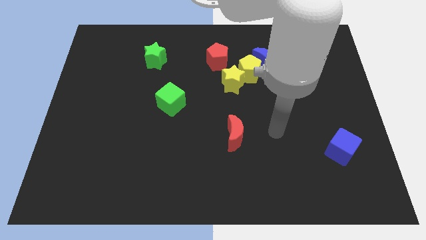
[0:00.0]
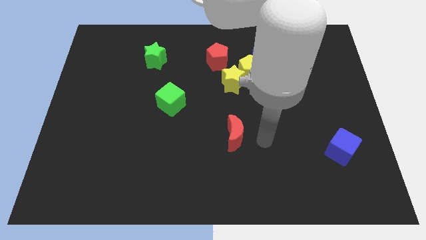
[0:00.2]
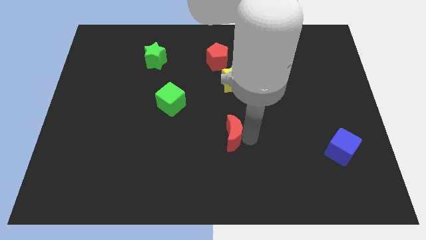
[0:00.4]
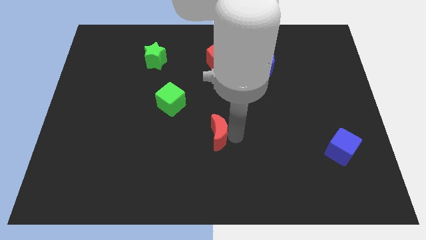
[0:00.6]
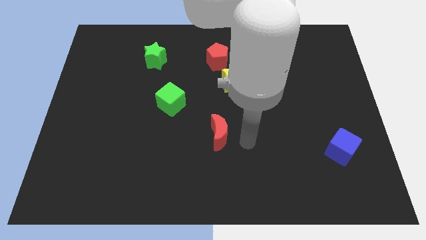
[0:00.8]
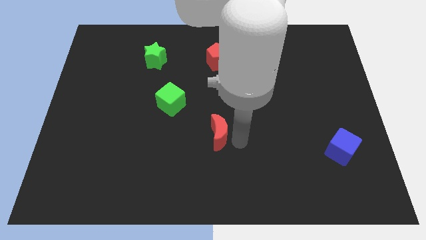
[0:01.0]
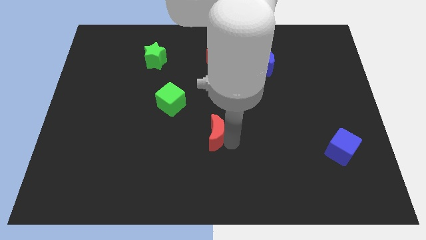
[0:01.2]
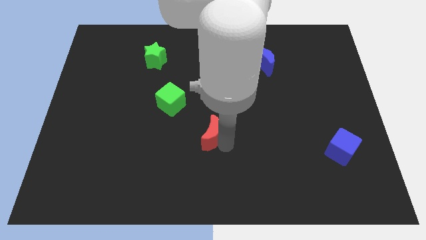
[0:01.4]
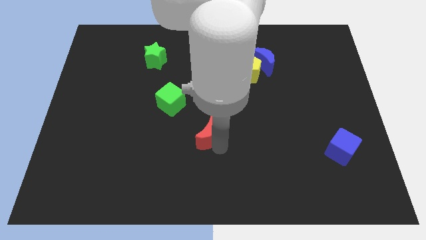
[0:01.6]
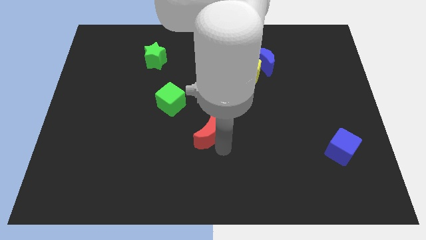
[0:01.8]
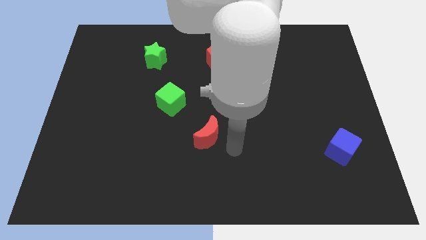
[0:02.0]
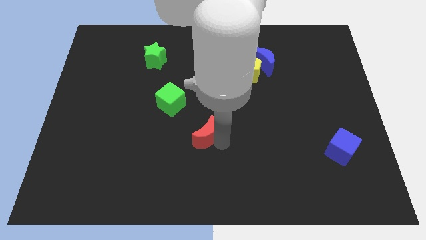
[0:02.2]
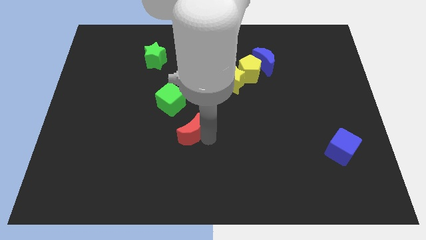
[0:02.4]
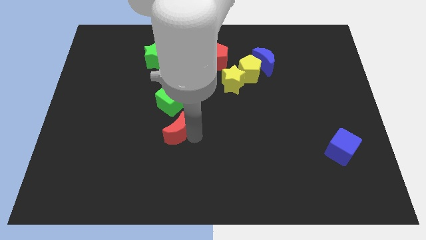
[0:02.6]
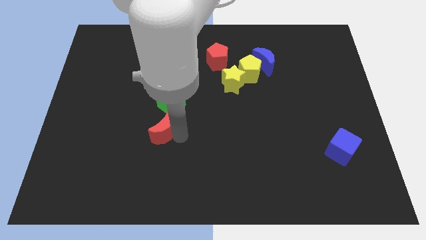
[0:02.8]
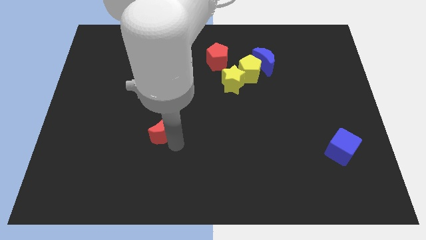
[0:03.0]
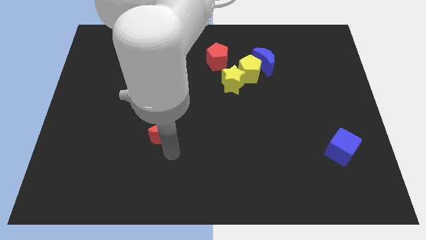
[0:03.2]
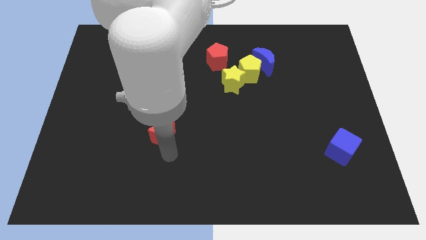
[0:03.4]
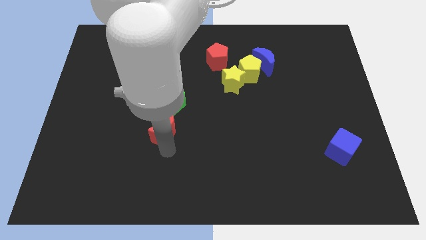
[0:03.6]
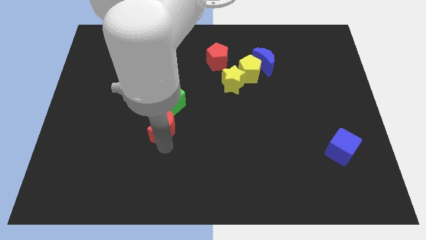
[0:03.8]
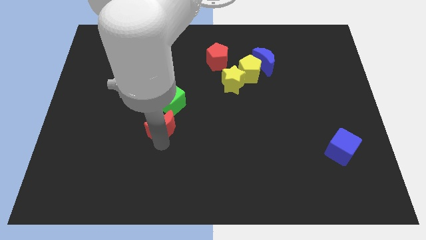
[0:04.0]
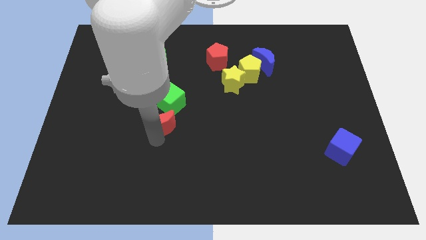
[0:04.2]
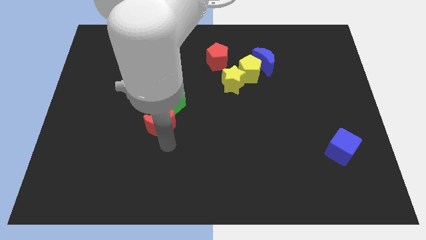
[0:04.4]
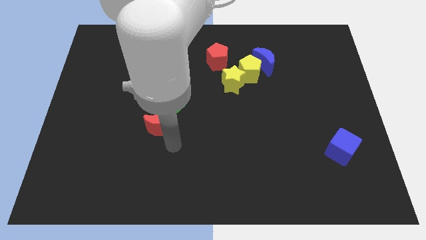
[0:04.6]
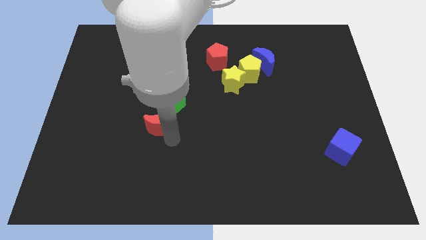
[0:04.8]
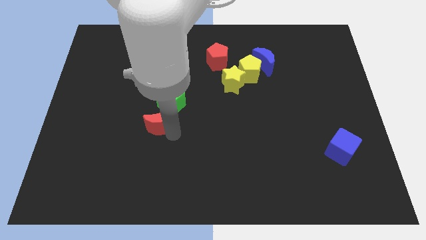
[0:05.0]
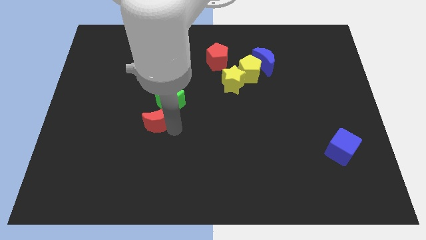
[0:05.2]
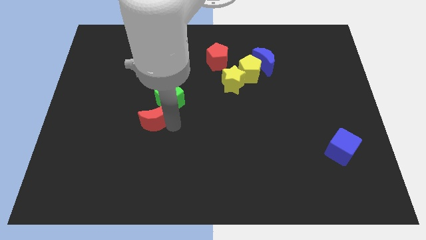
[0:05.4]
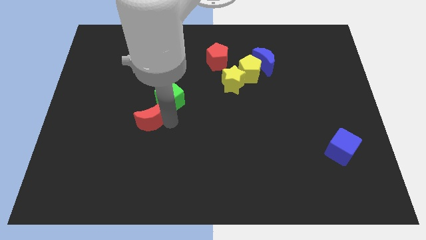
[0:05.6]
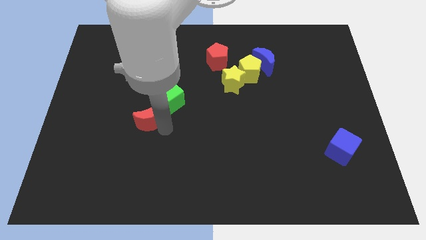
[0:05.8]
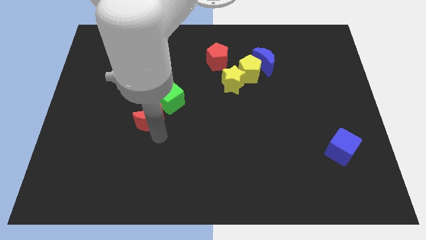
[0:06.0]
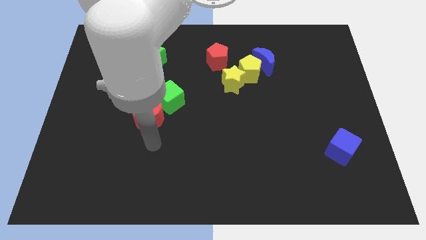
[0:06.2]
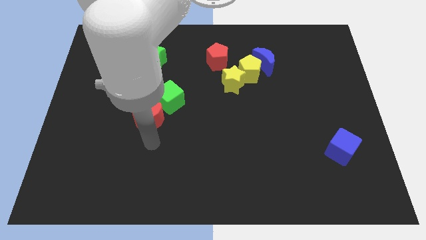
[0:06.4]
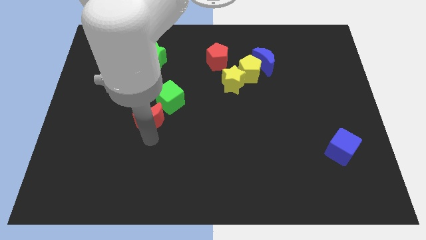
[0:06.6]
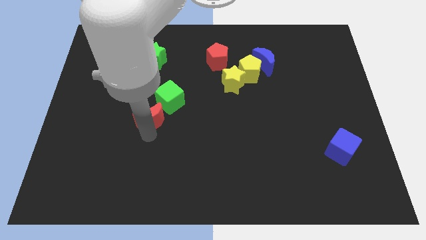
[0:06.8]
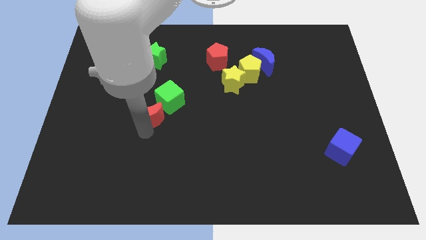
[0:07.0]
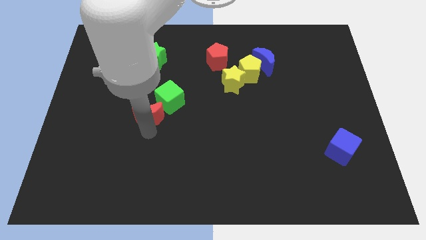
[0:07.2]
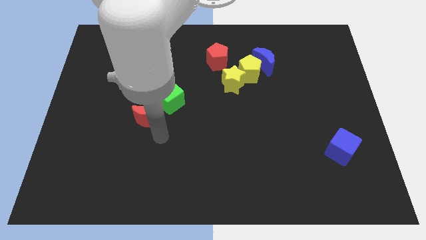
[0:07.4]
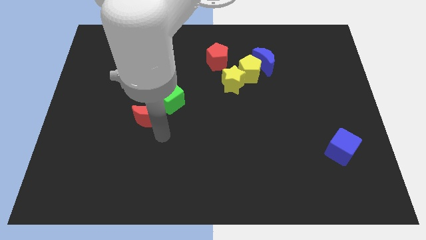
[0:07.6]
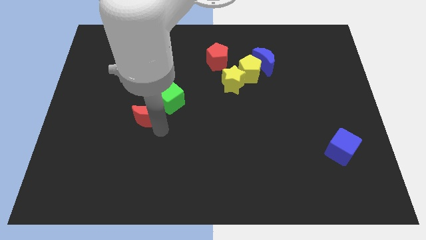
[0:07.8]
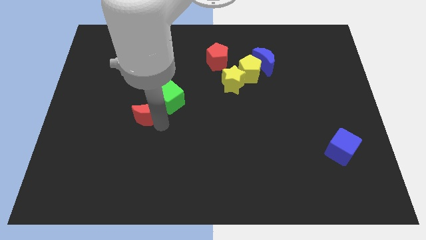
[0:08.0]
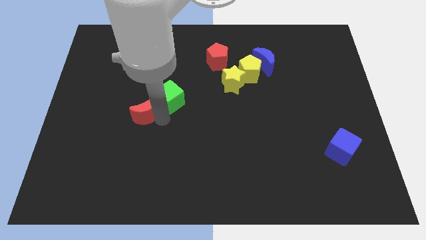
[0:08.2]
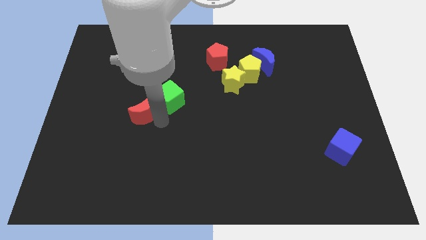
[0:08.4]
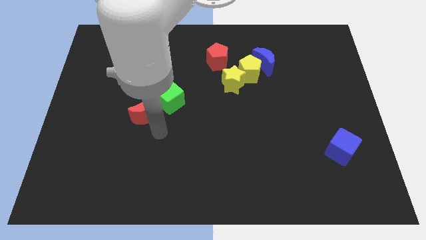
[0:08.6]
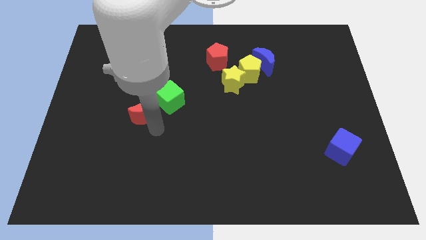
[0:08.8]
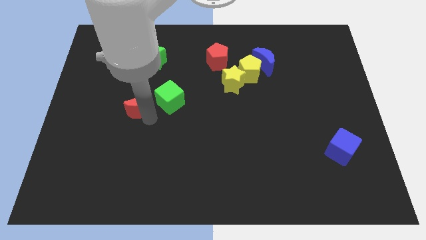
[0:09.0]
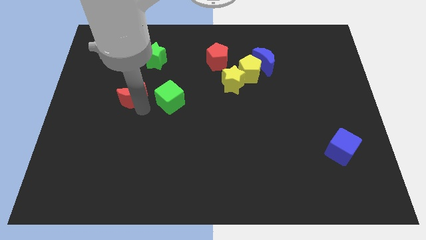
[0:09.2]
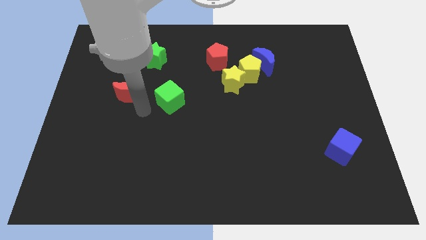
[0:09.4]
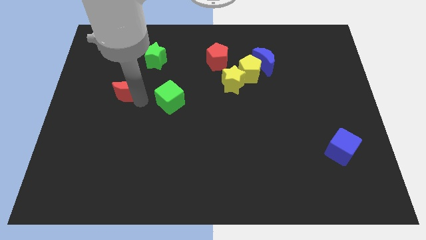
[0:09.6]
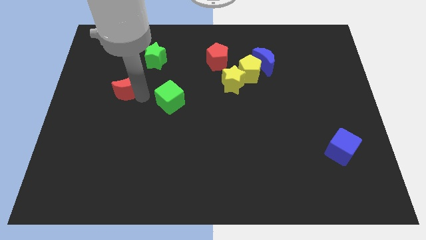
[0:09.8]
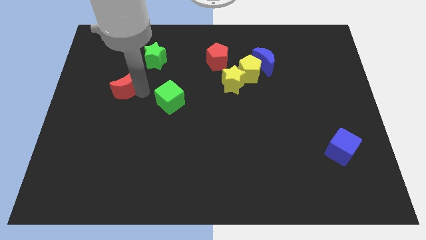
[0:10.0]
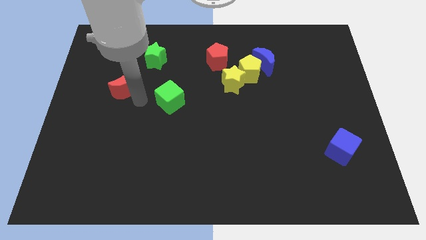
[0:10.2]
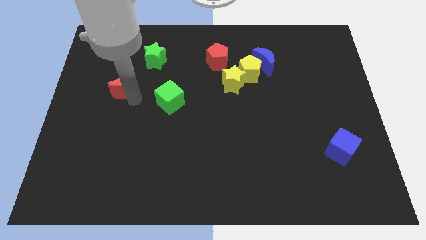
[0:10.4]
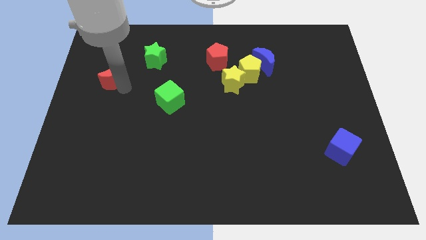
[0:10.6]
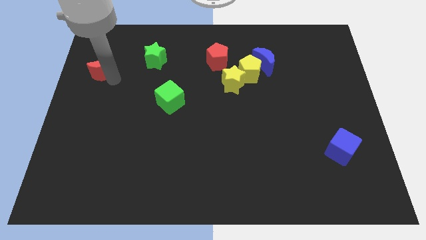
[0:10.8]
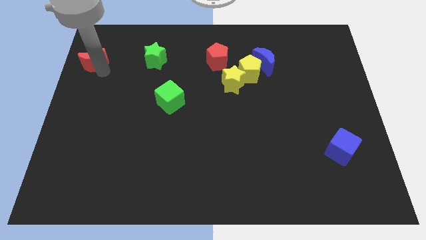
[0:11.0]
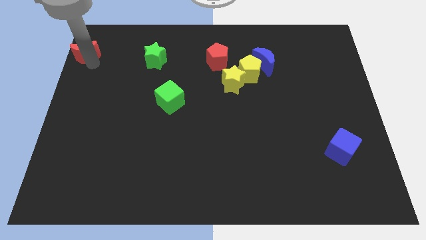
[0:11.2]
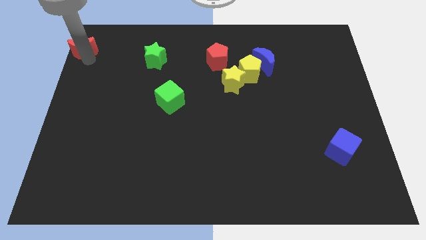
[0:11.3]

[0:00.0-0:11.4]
move the red moon to the top left corner

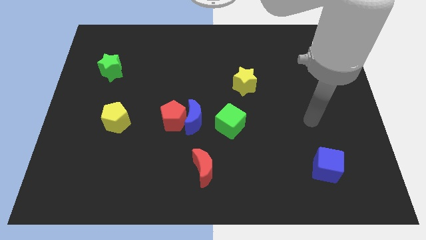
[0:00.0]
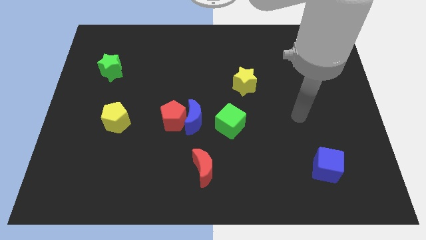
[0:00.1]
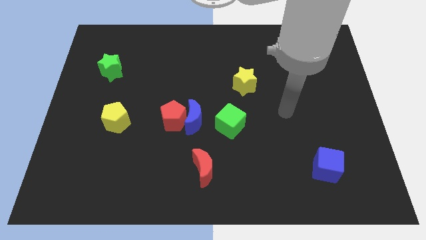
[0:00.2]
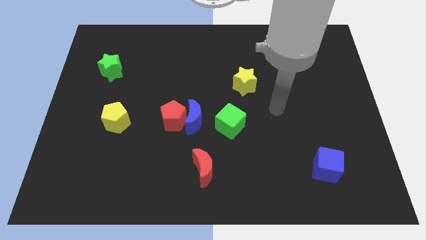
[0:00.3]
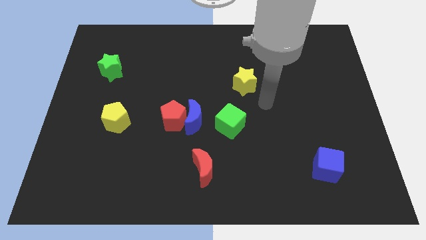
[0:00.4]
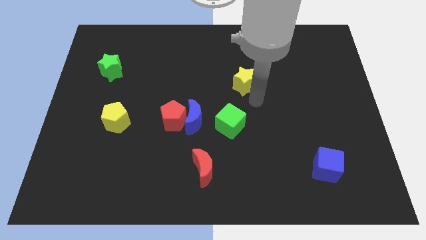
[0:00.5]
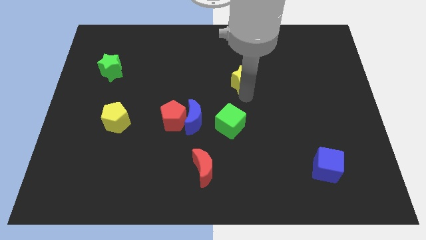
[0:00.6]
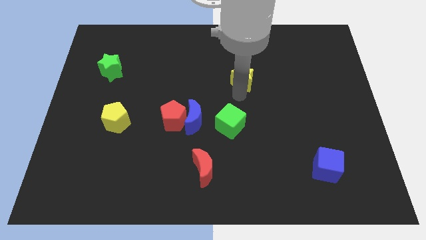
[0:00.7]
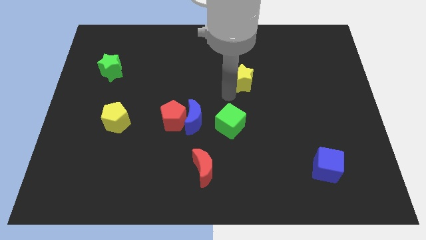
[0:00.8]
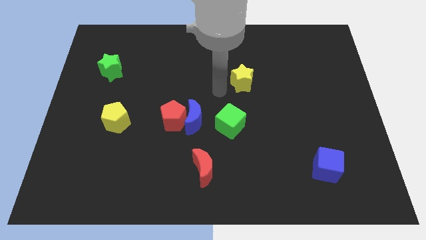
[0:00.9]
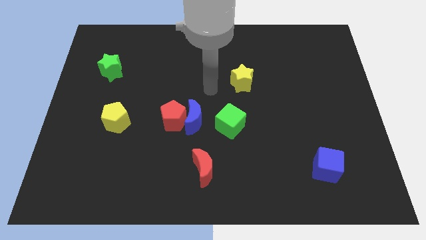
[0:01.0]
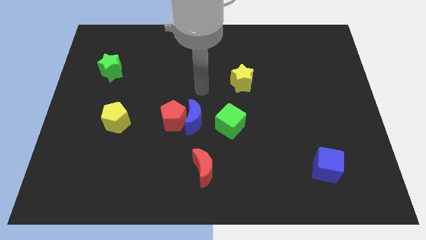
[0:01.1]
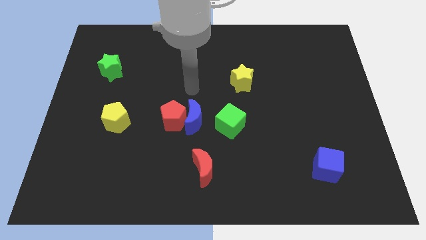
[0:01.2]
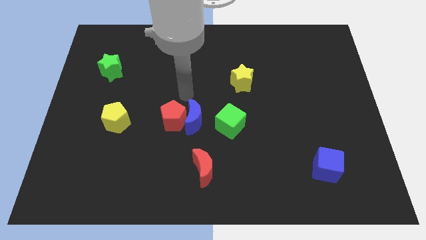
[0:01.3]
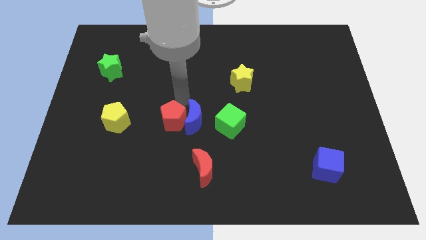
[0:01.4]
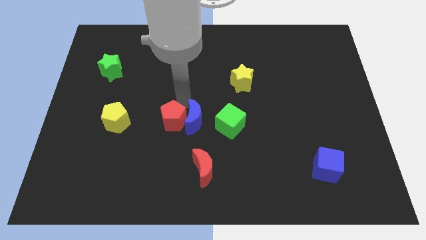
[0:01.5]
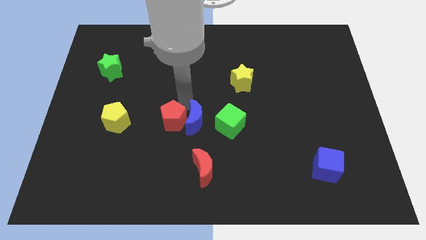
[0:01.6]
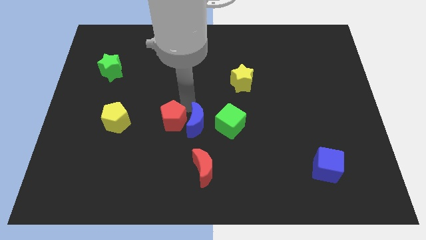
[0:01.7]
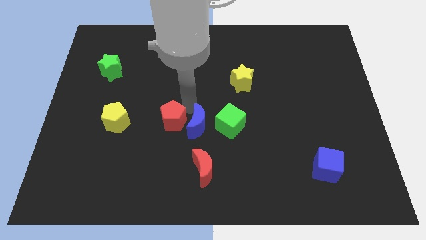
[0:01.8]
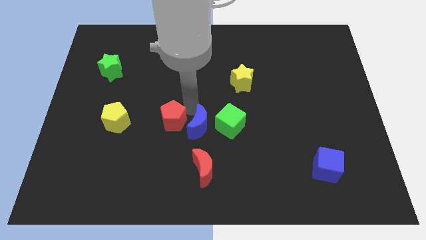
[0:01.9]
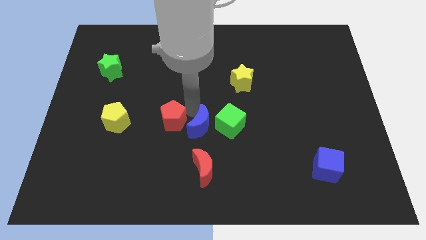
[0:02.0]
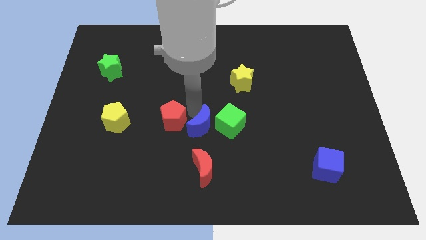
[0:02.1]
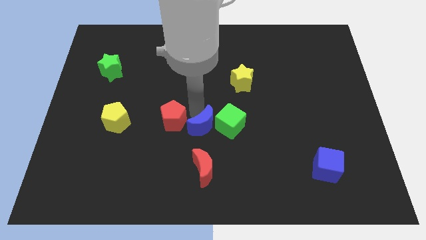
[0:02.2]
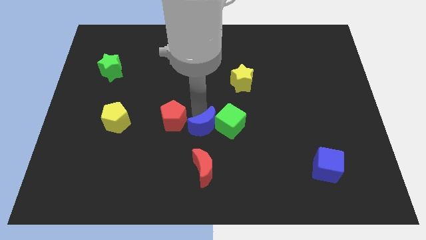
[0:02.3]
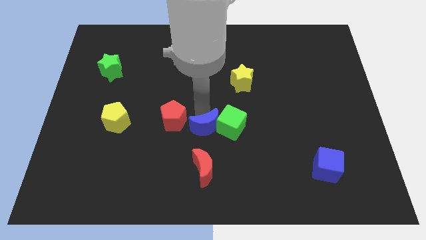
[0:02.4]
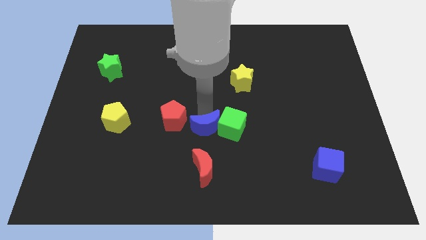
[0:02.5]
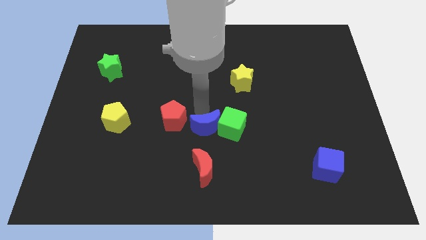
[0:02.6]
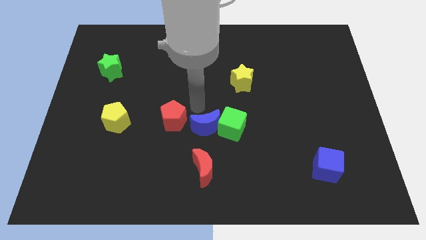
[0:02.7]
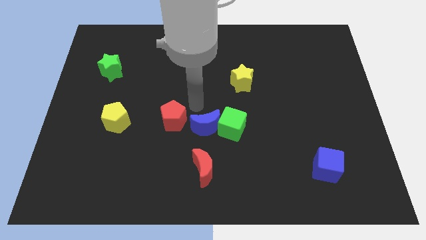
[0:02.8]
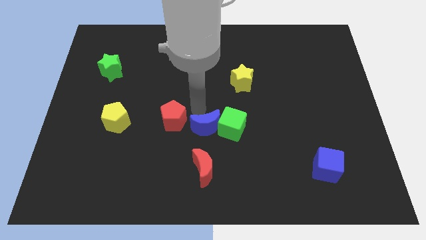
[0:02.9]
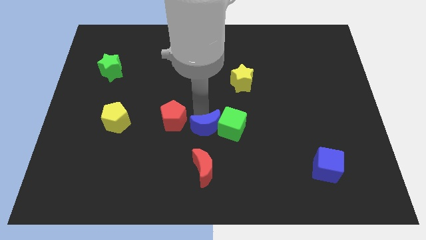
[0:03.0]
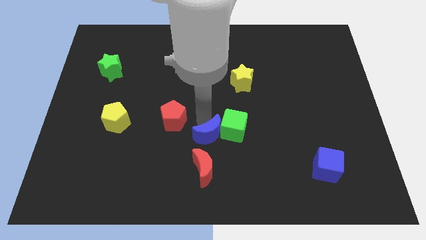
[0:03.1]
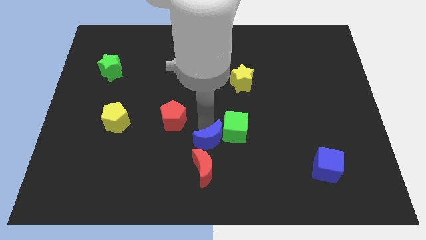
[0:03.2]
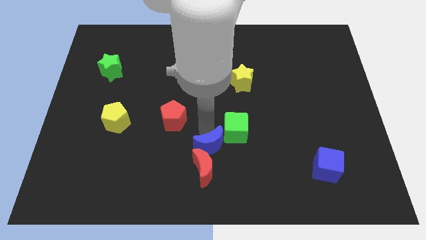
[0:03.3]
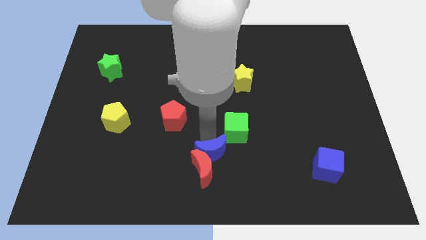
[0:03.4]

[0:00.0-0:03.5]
put the blue moon to the bottom
